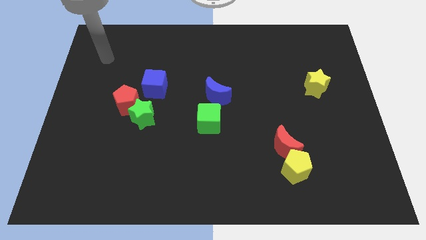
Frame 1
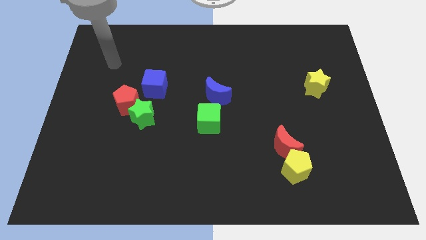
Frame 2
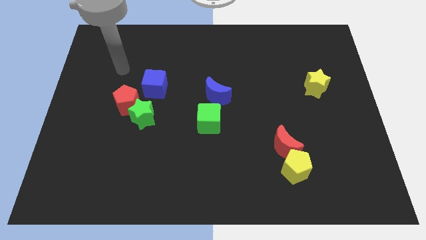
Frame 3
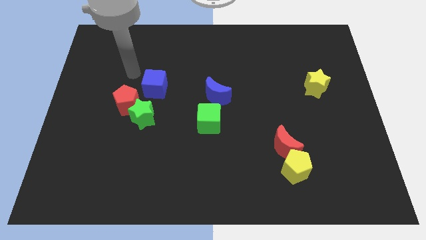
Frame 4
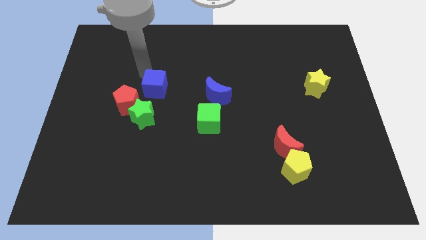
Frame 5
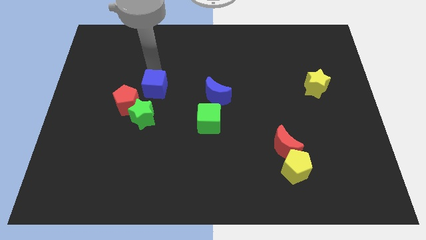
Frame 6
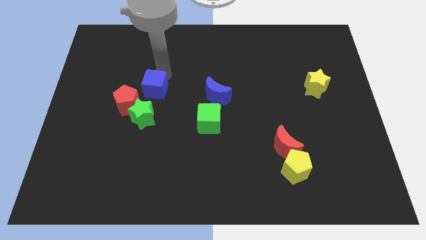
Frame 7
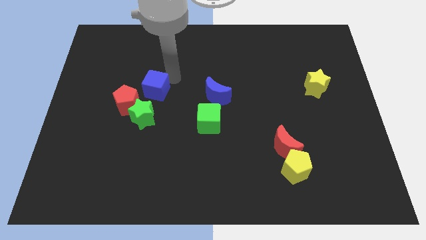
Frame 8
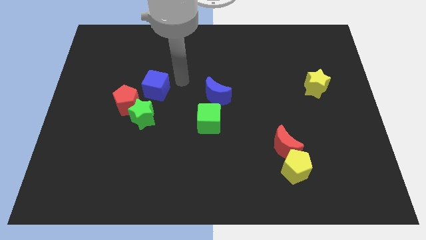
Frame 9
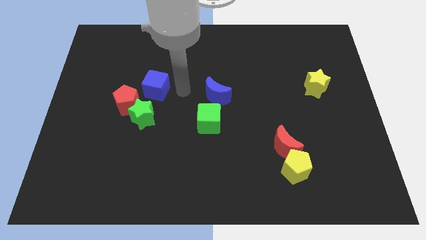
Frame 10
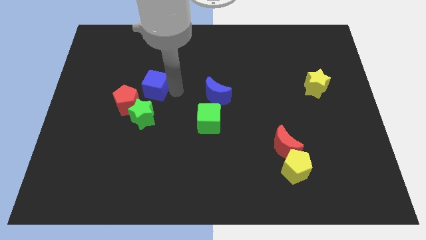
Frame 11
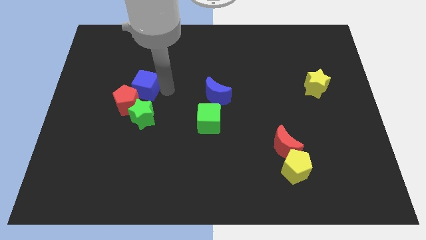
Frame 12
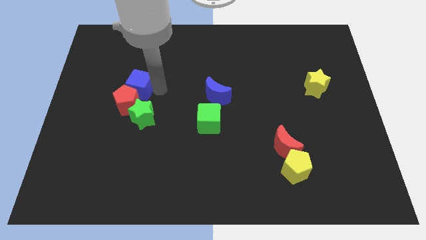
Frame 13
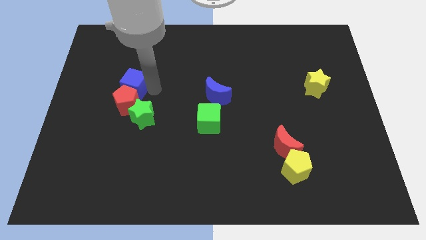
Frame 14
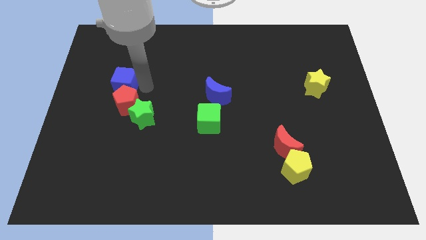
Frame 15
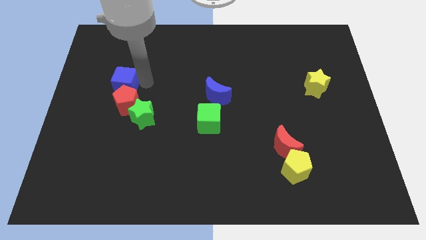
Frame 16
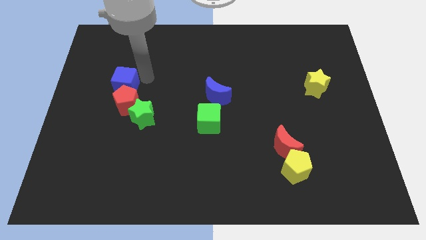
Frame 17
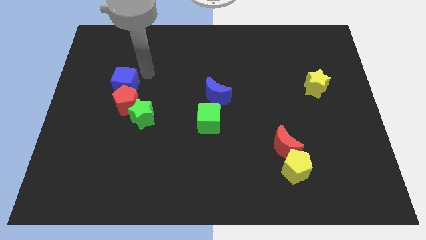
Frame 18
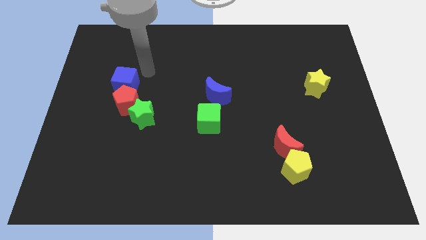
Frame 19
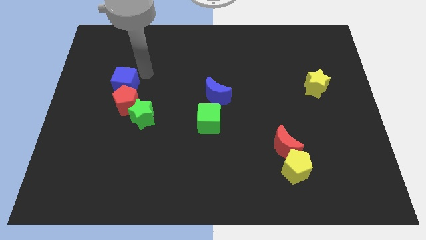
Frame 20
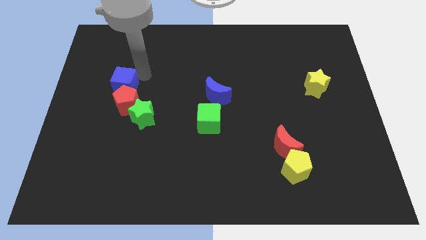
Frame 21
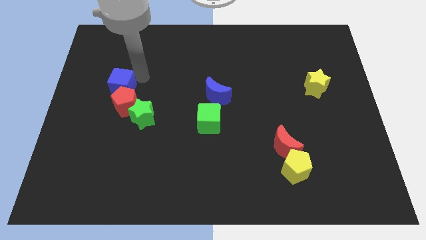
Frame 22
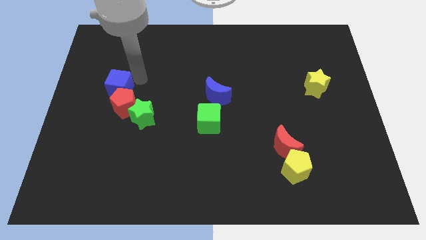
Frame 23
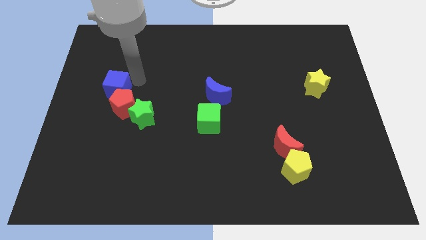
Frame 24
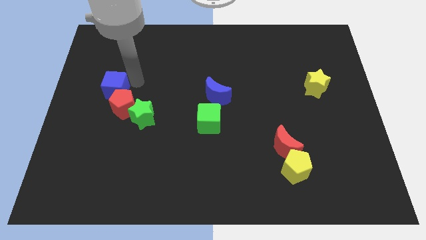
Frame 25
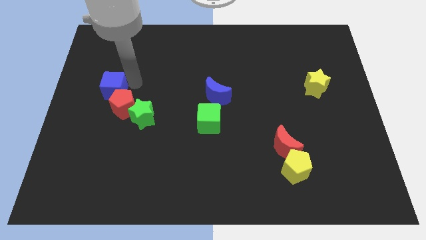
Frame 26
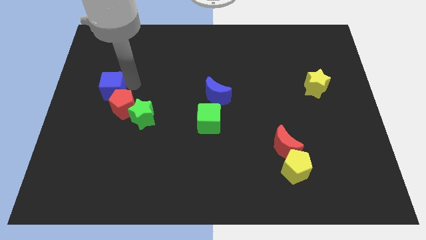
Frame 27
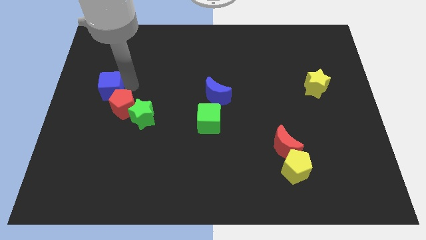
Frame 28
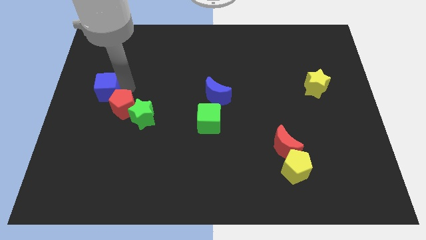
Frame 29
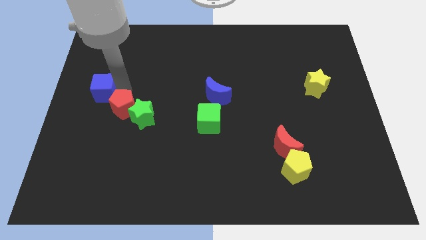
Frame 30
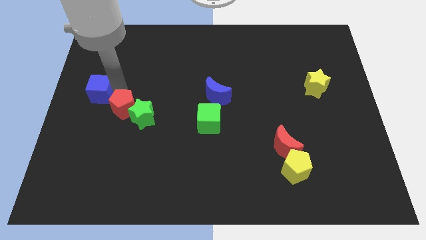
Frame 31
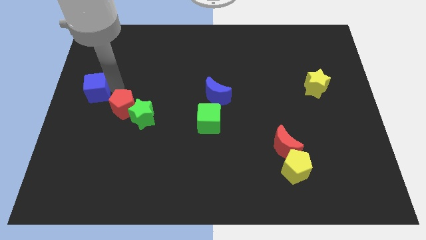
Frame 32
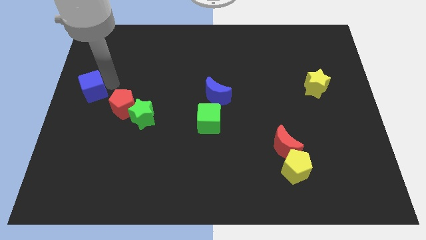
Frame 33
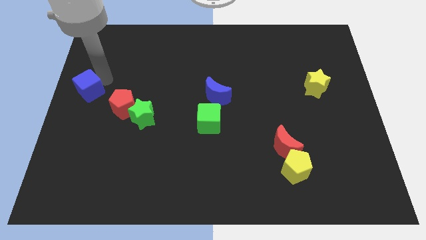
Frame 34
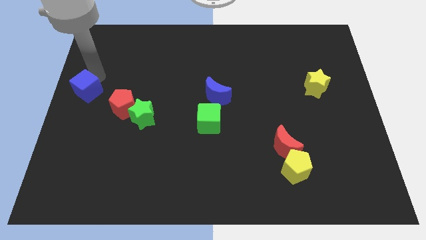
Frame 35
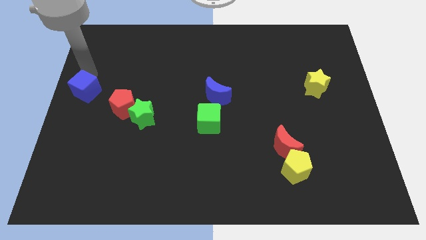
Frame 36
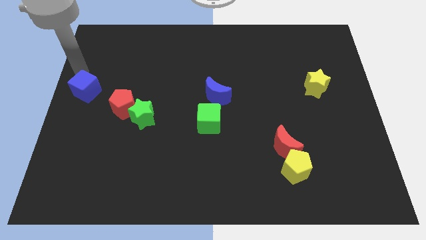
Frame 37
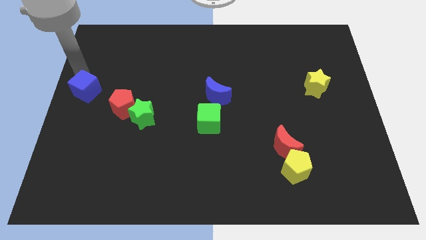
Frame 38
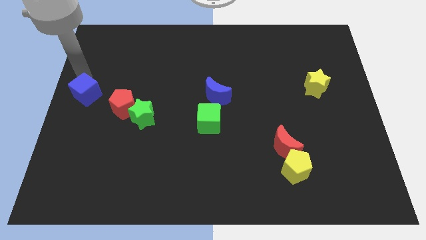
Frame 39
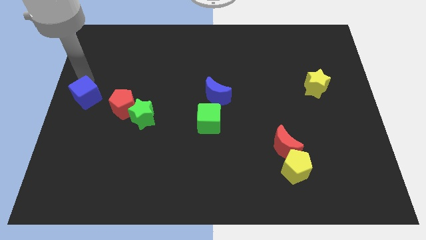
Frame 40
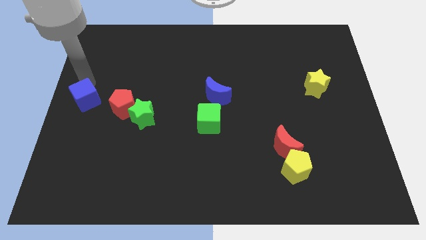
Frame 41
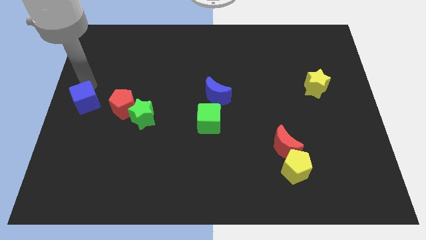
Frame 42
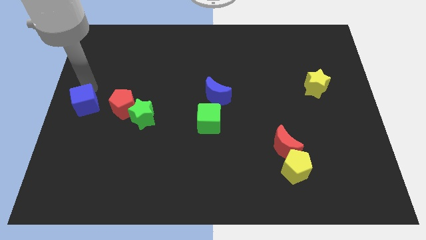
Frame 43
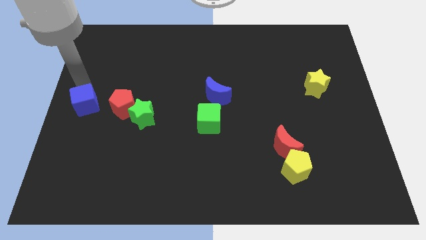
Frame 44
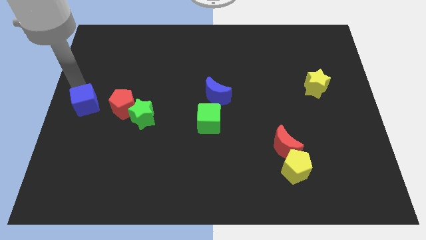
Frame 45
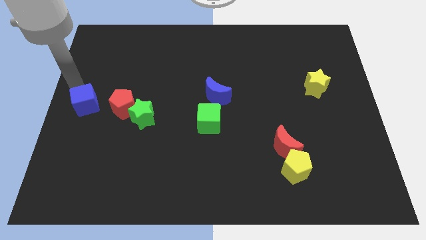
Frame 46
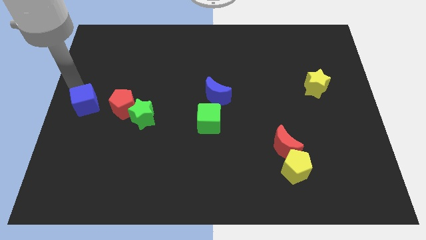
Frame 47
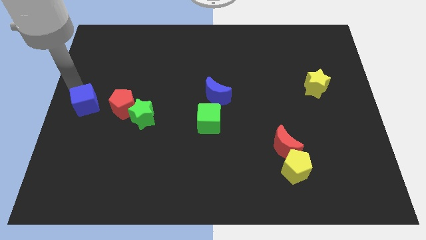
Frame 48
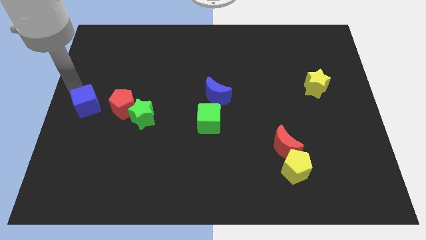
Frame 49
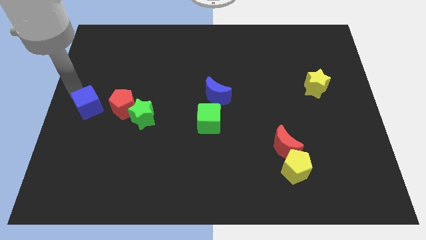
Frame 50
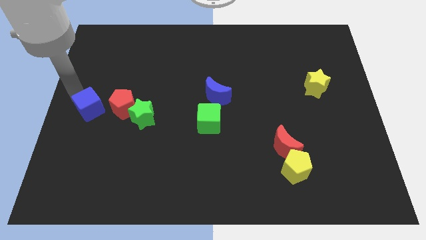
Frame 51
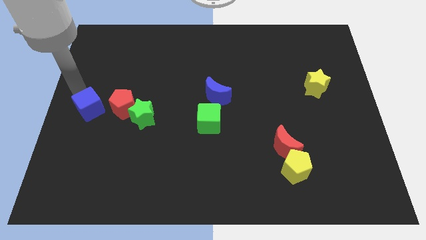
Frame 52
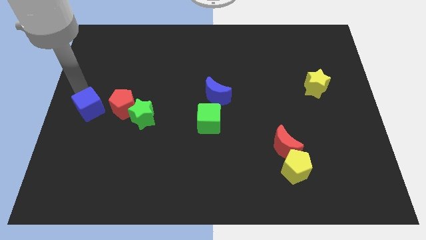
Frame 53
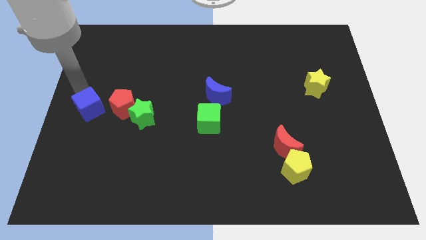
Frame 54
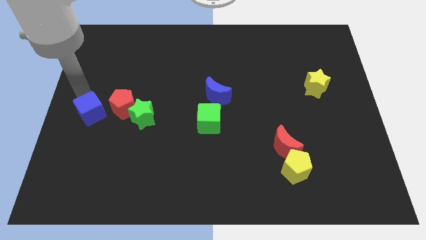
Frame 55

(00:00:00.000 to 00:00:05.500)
slide the blue cube to the bottom left of the red pentagon

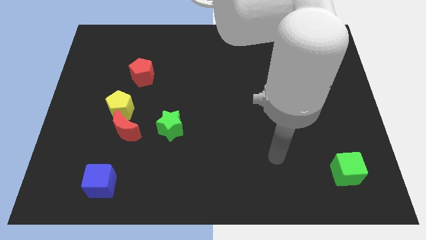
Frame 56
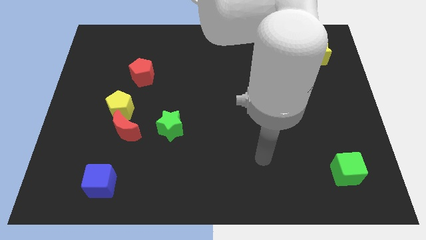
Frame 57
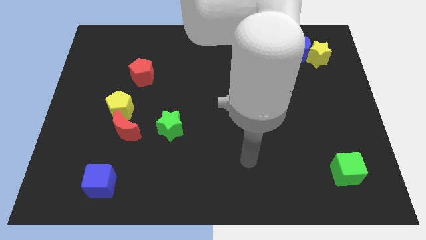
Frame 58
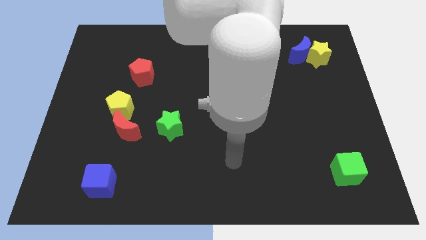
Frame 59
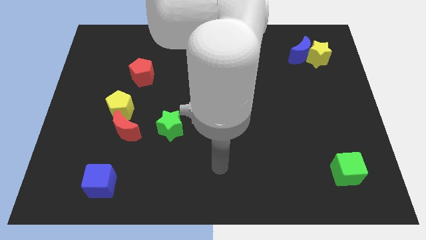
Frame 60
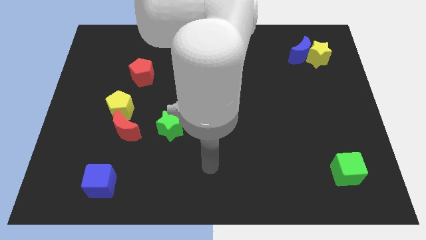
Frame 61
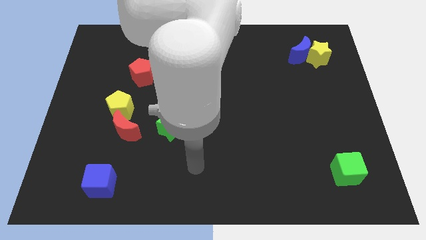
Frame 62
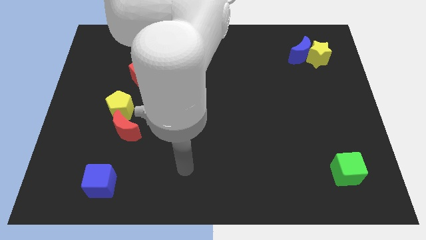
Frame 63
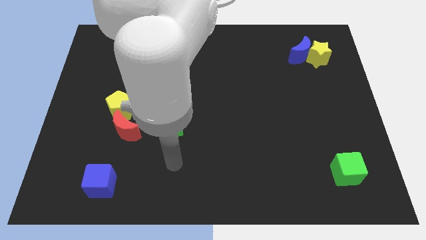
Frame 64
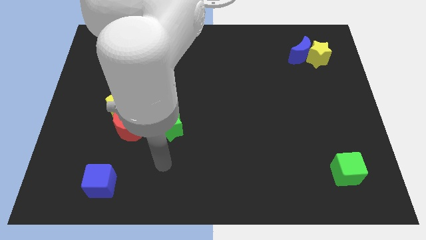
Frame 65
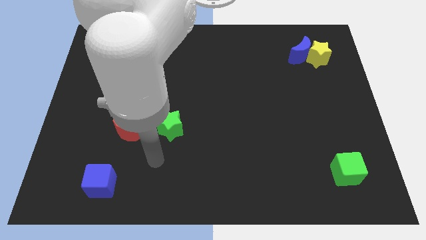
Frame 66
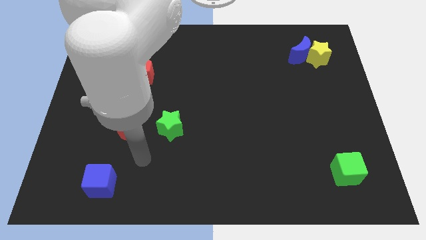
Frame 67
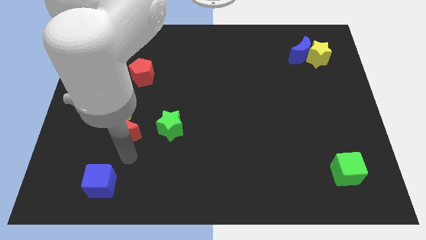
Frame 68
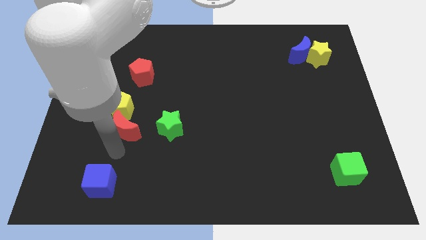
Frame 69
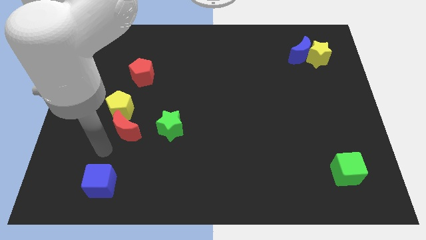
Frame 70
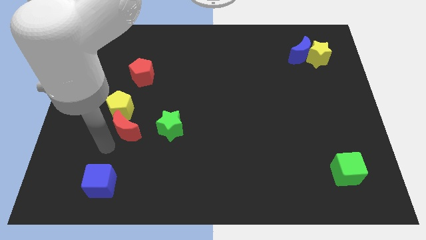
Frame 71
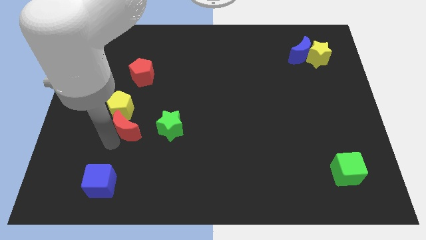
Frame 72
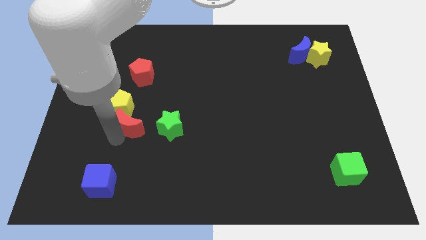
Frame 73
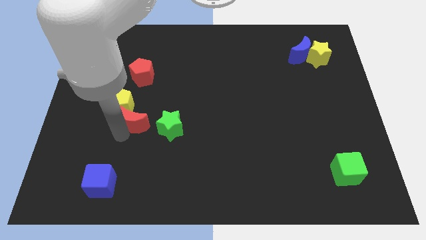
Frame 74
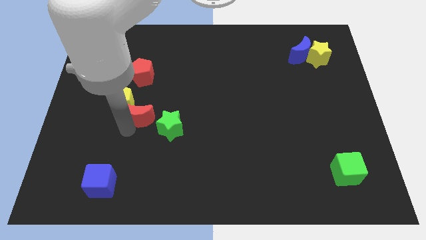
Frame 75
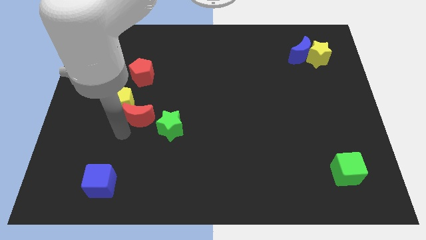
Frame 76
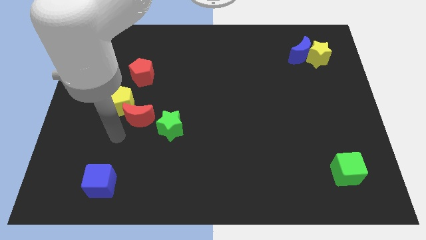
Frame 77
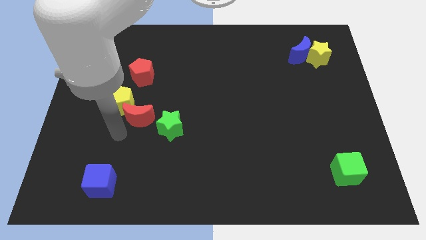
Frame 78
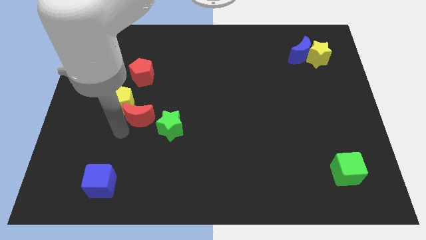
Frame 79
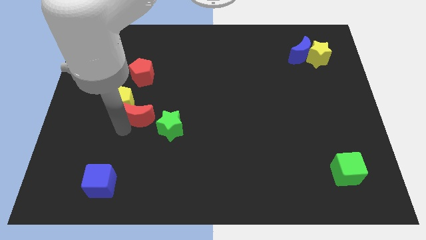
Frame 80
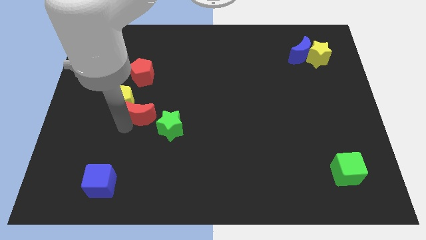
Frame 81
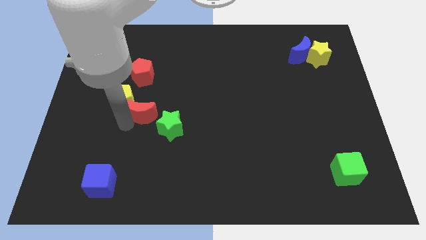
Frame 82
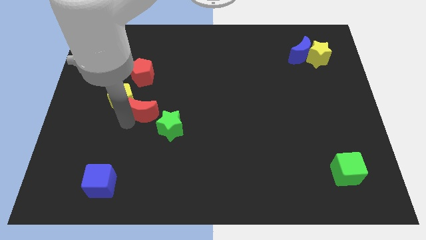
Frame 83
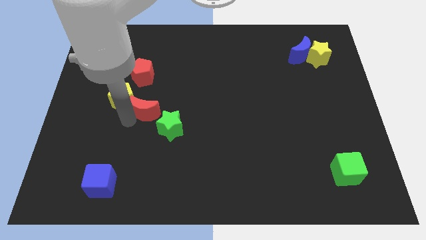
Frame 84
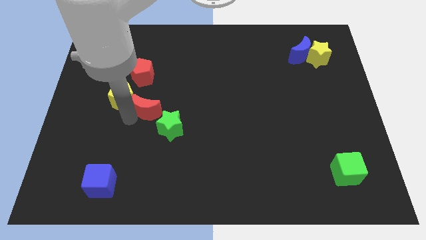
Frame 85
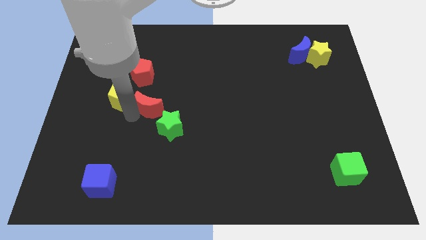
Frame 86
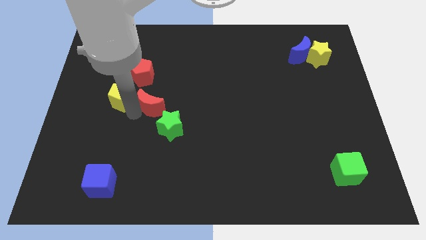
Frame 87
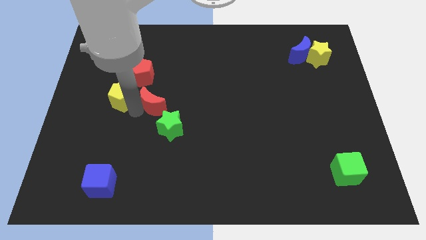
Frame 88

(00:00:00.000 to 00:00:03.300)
move the red moon to the top side of the green star
